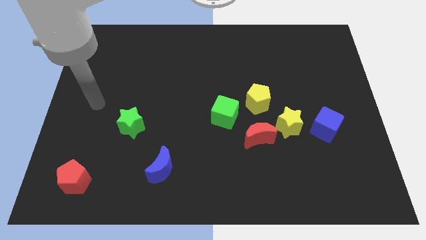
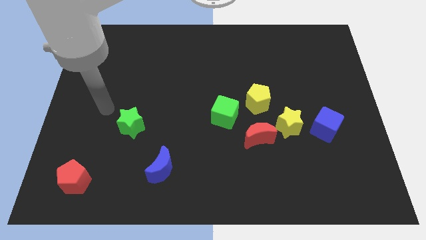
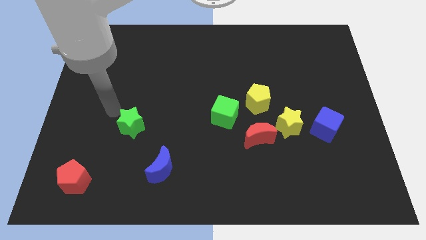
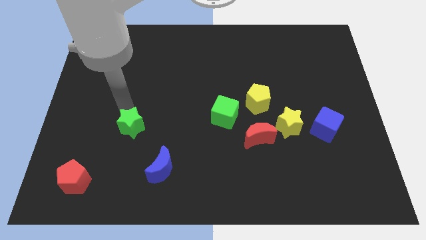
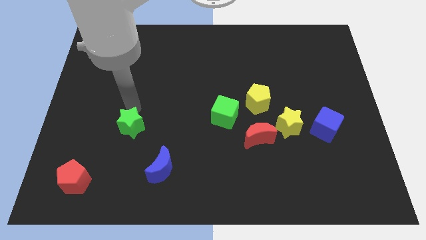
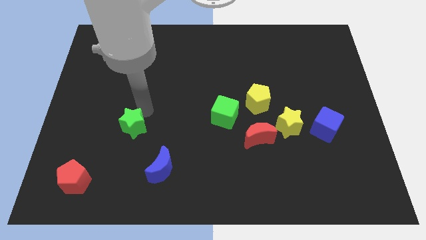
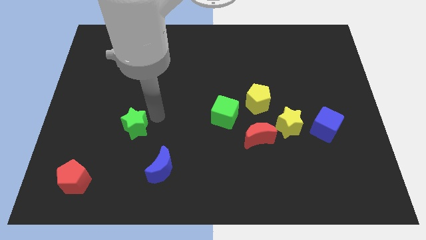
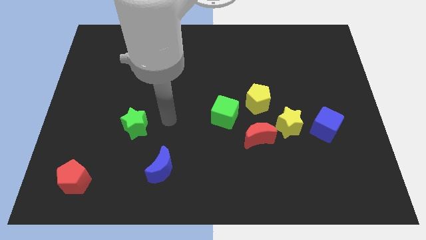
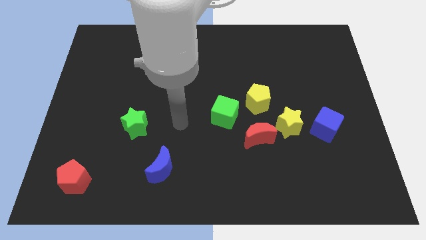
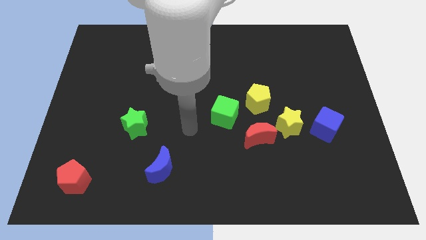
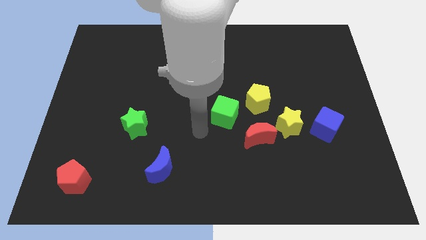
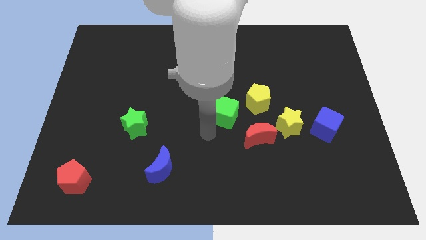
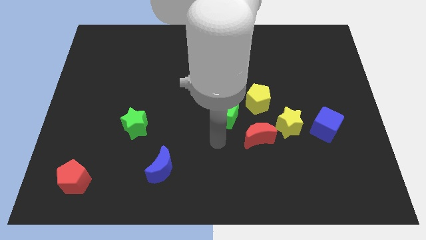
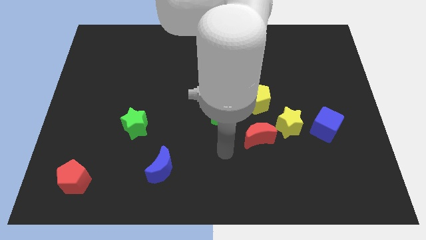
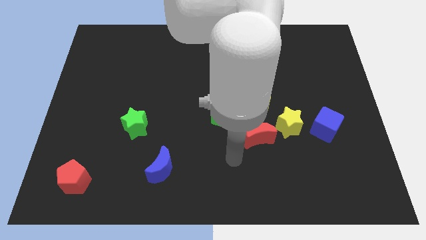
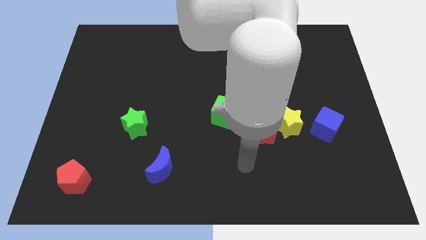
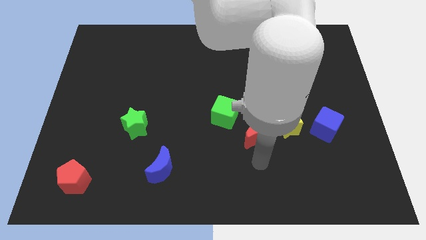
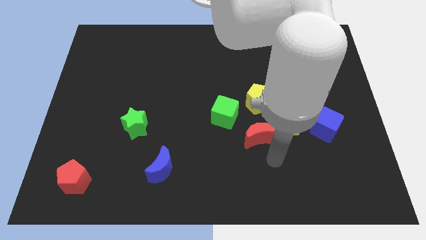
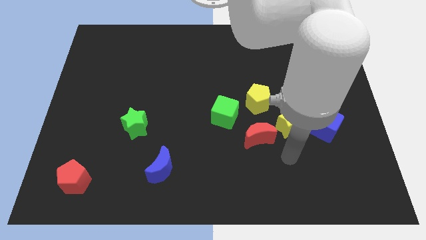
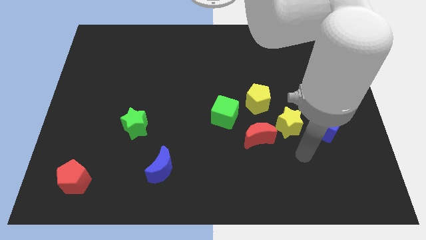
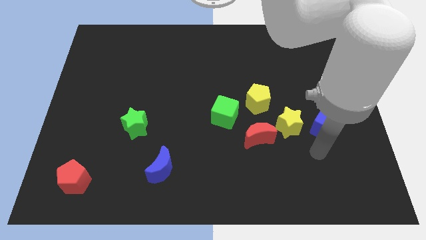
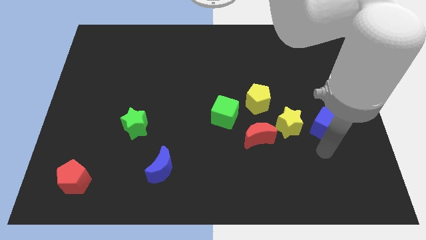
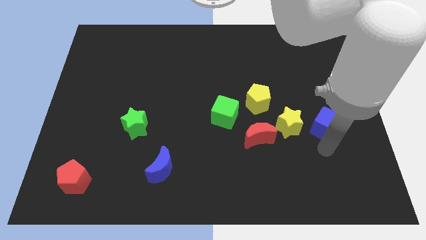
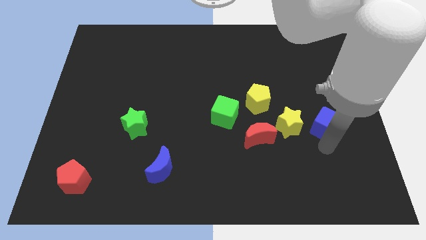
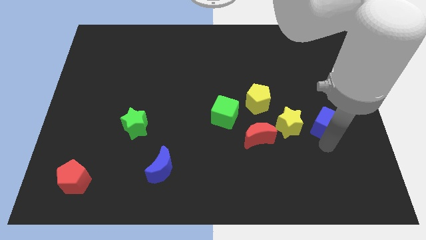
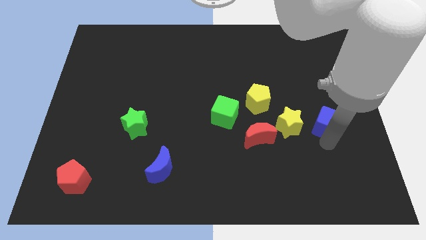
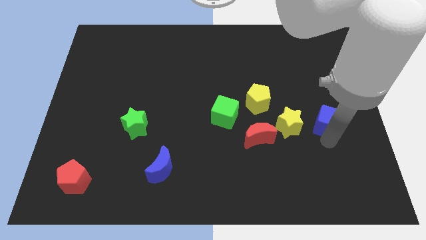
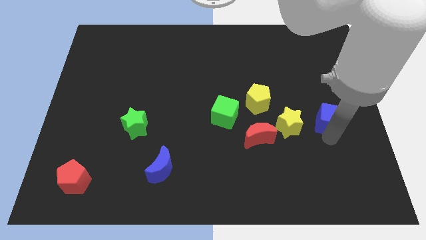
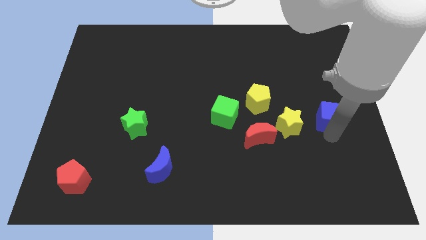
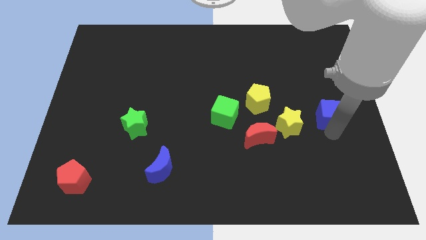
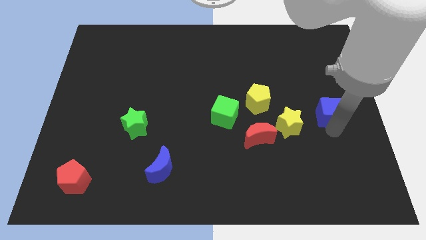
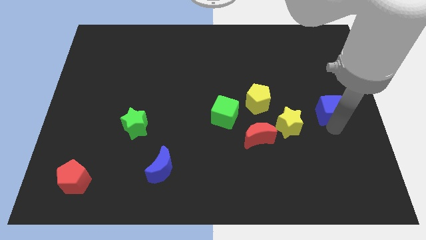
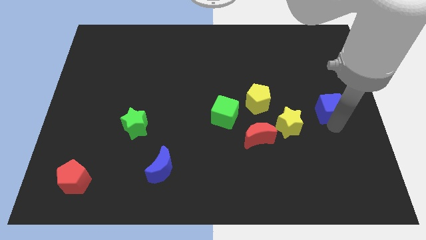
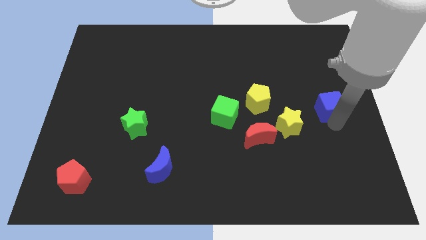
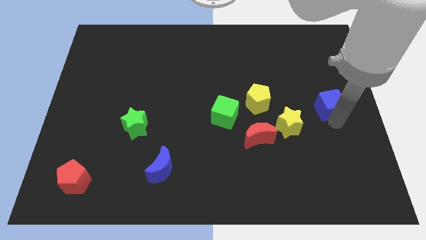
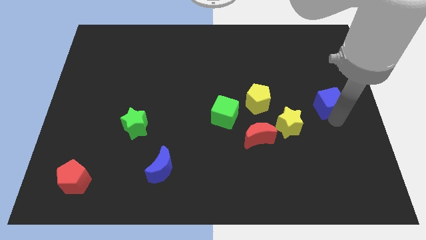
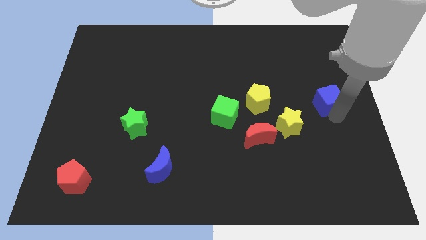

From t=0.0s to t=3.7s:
slightly slide the blue cube up

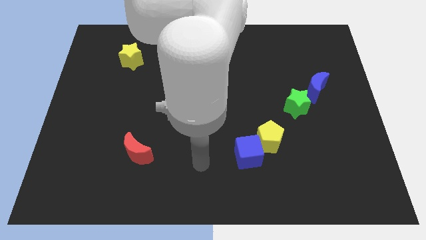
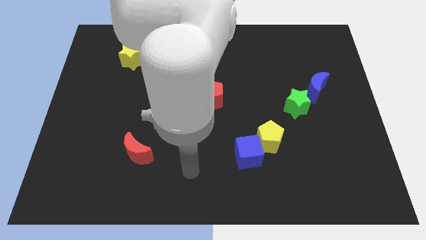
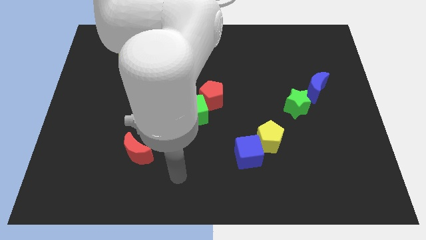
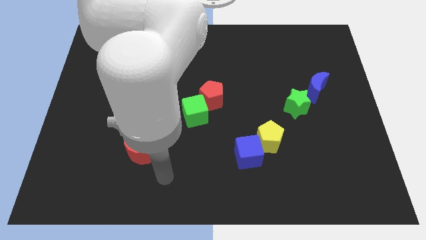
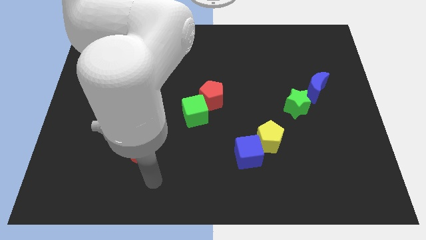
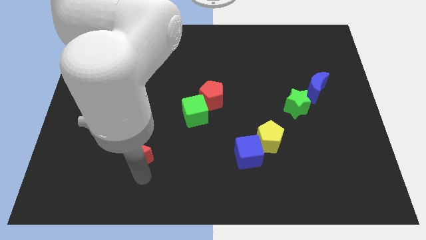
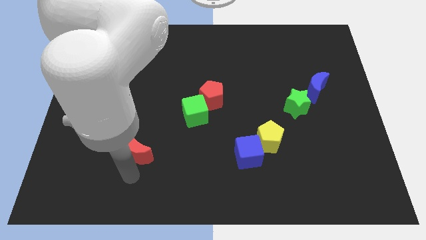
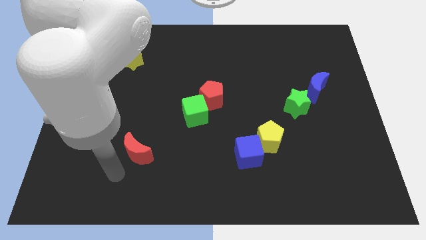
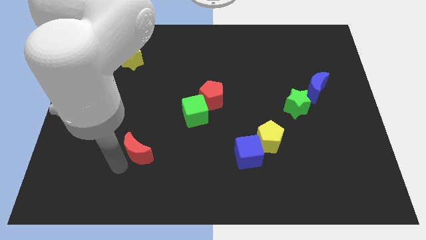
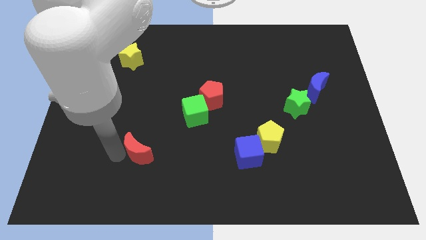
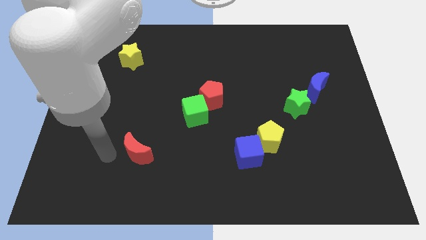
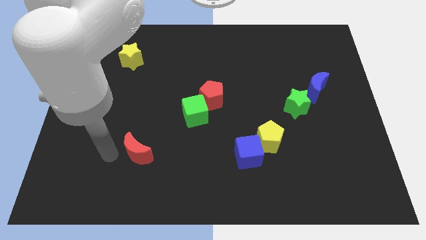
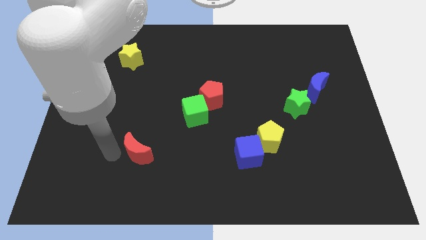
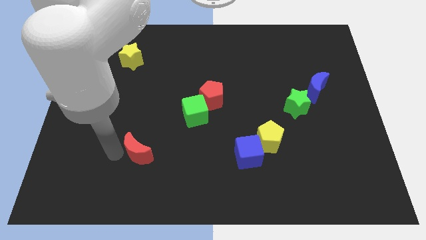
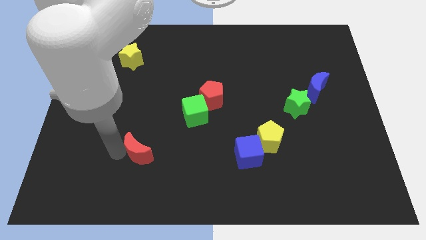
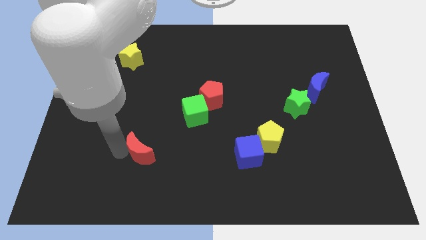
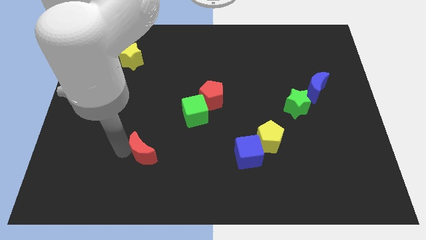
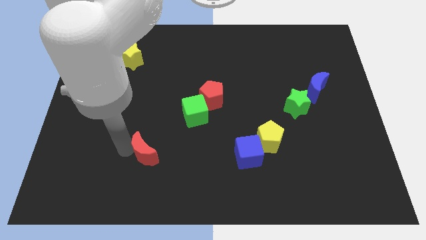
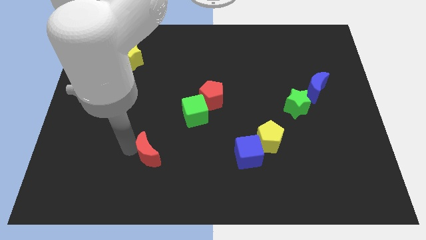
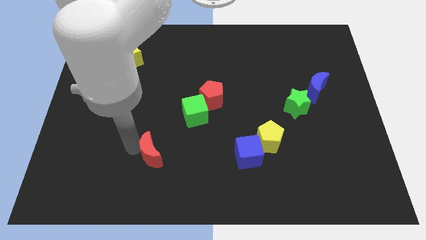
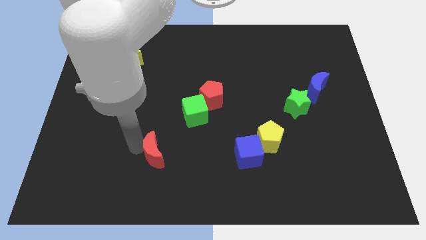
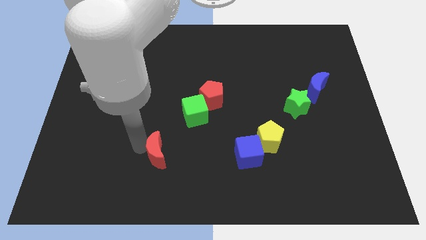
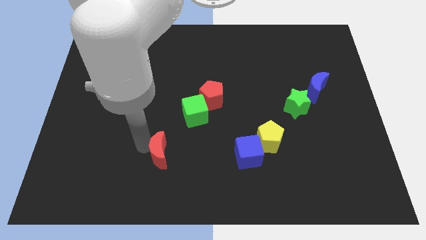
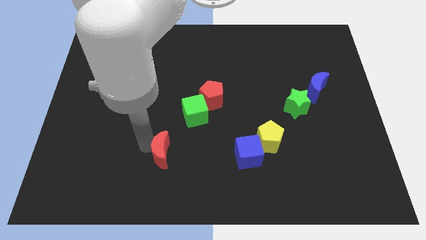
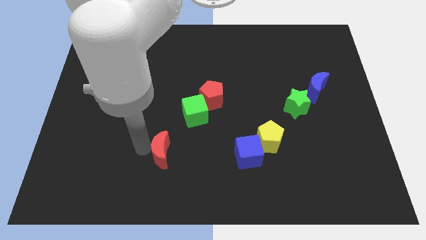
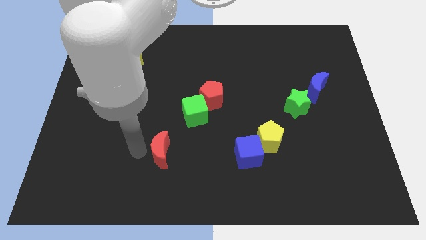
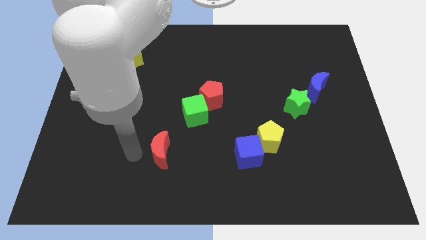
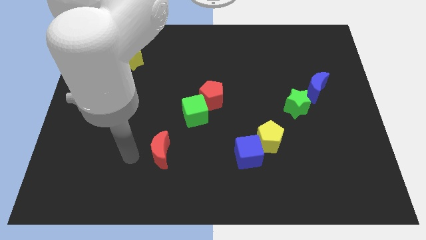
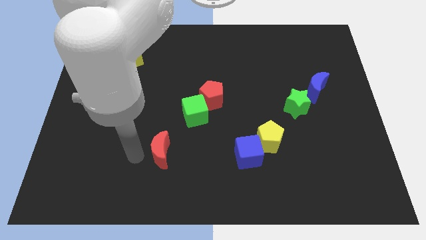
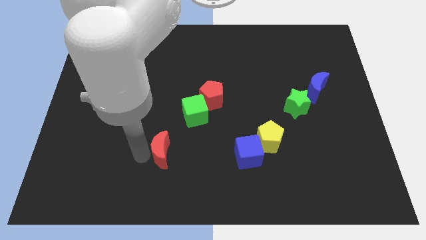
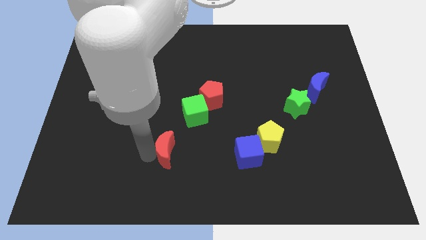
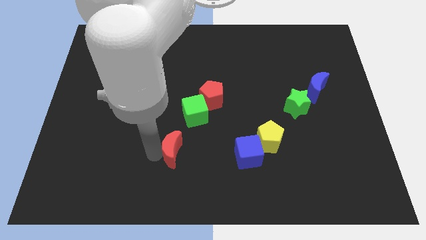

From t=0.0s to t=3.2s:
slightly slide the red moon right

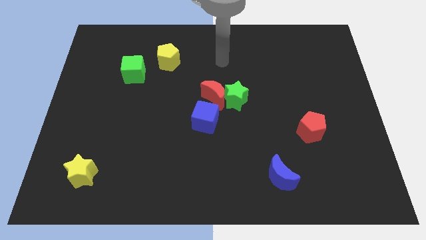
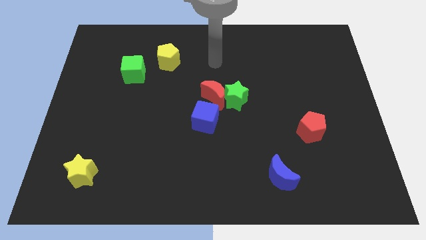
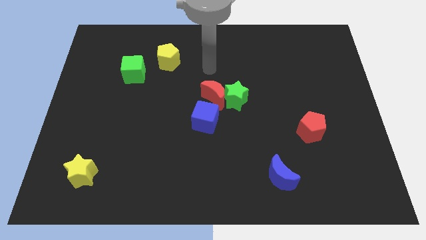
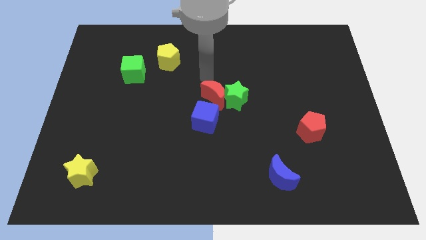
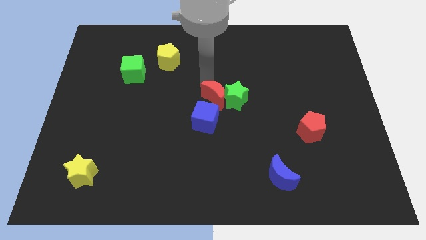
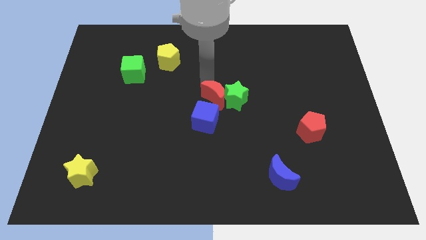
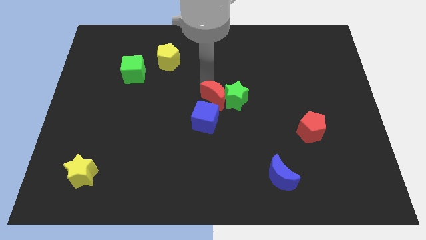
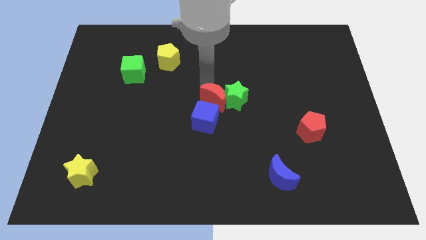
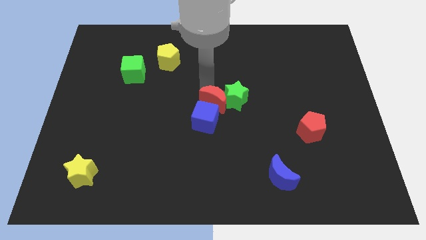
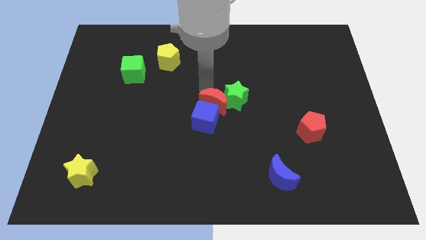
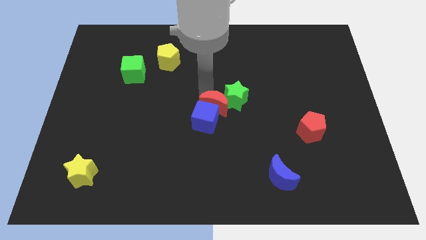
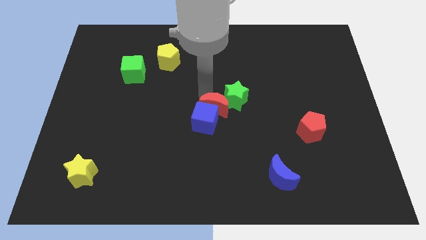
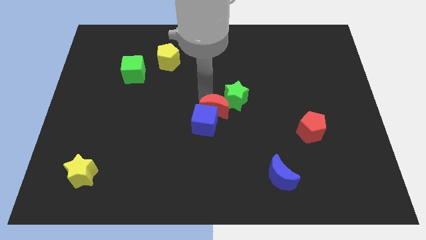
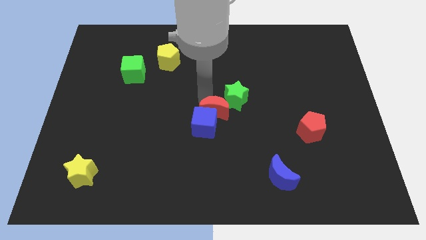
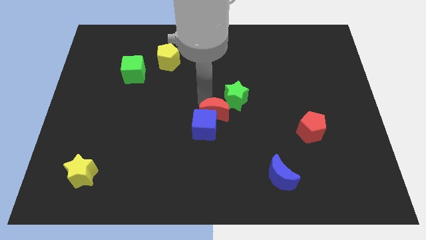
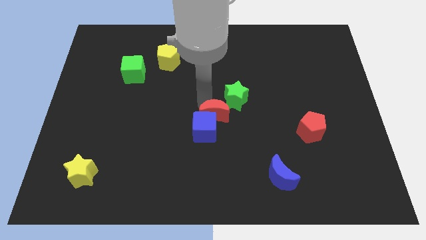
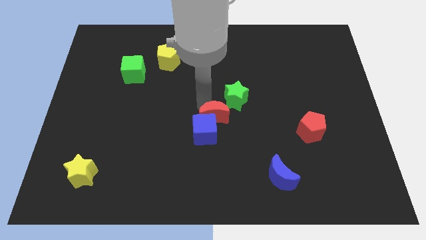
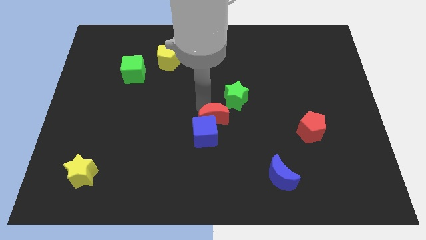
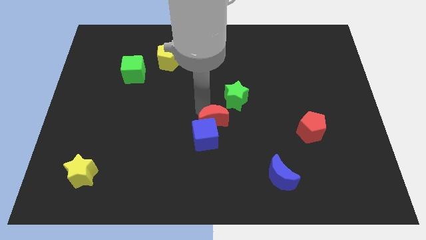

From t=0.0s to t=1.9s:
move the red moon down a bit
